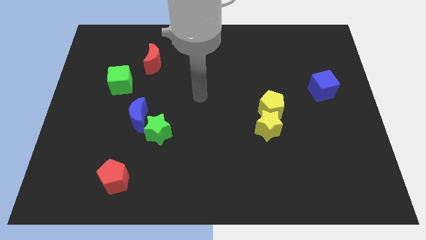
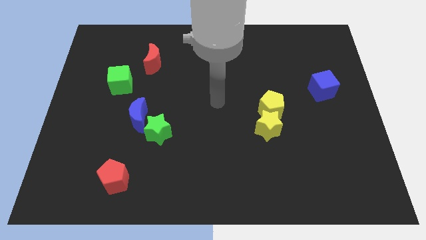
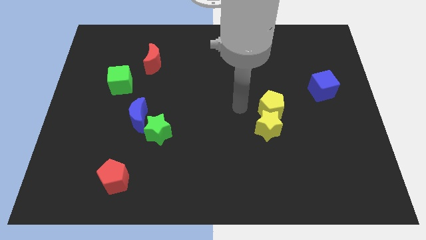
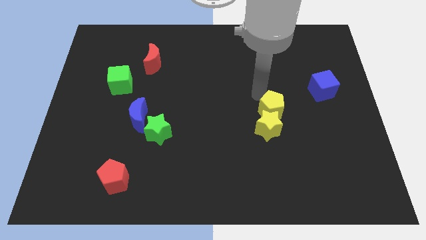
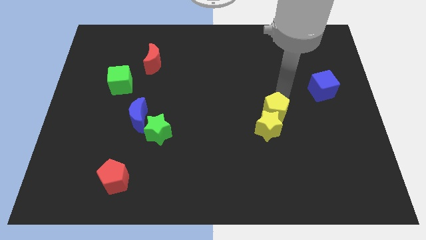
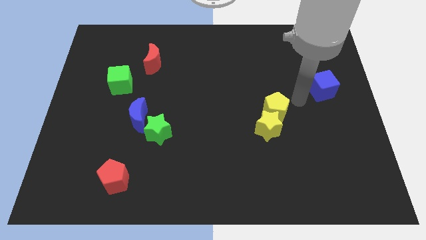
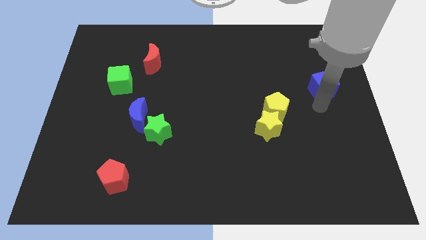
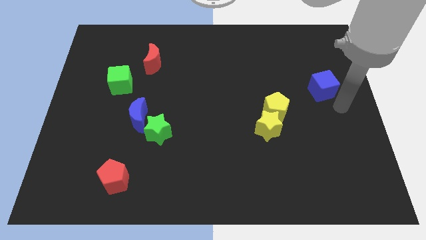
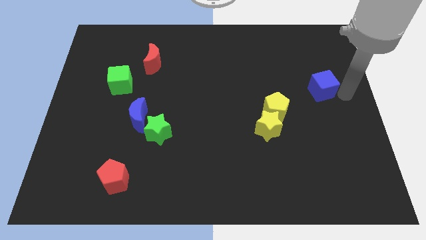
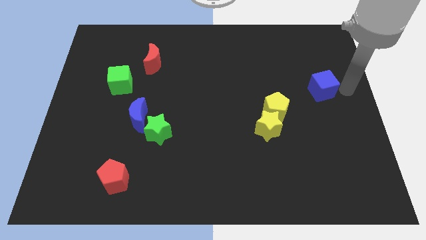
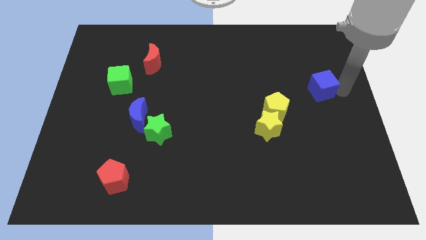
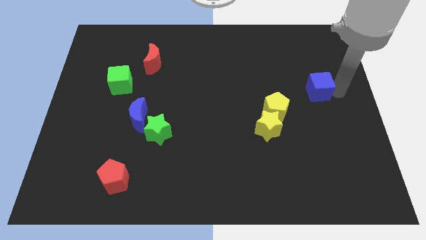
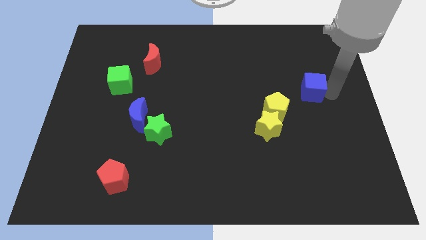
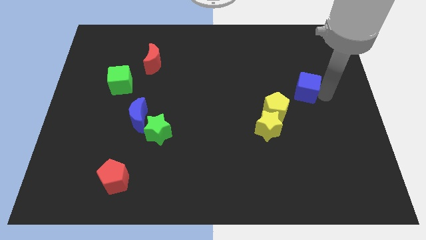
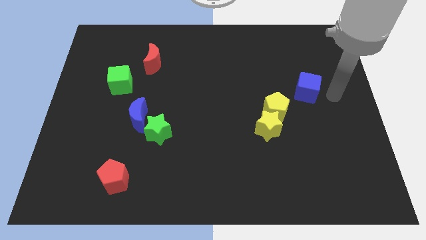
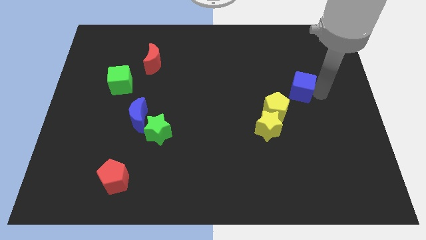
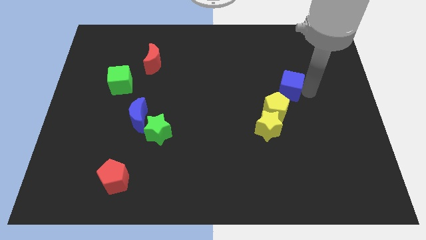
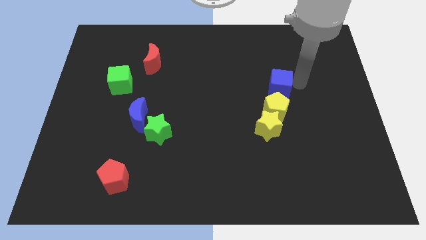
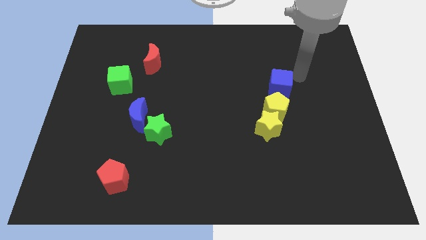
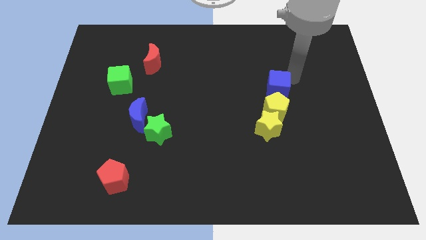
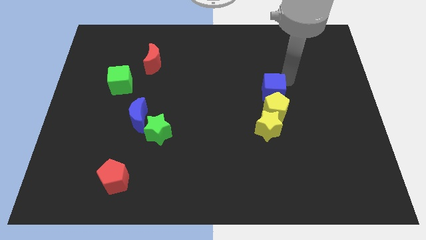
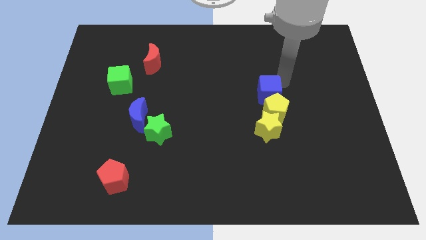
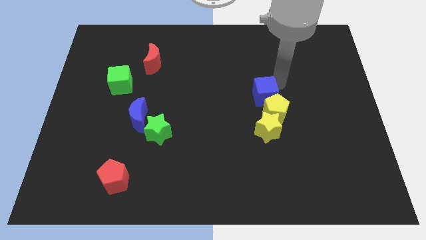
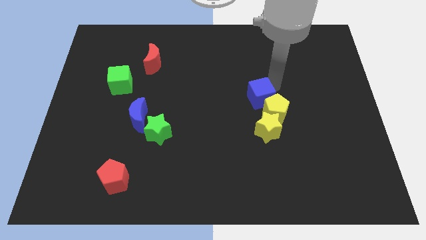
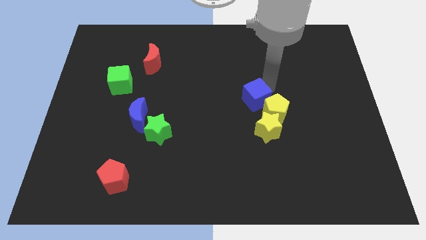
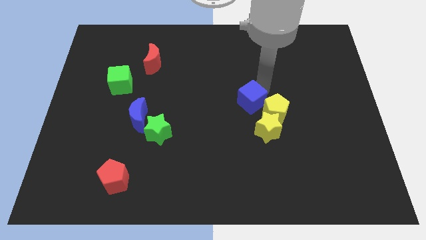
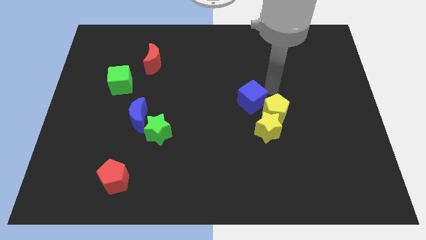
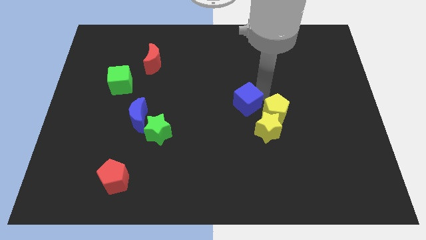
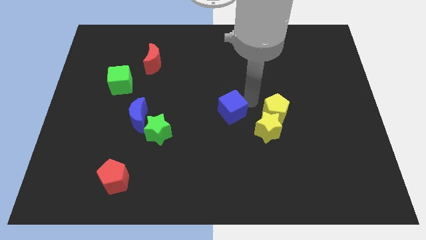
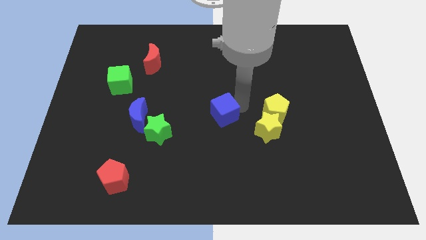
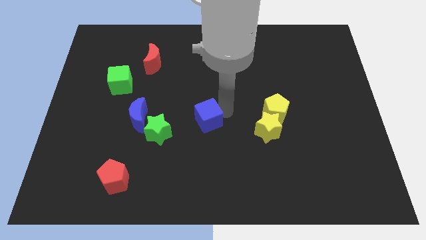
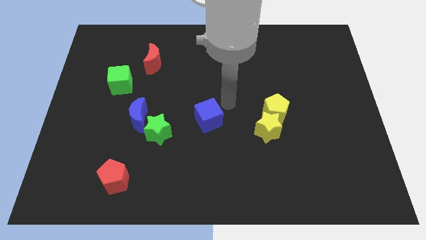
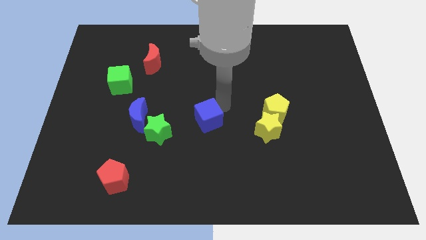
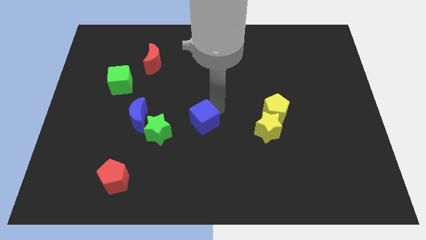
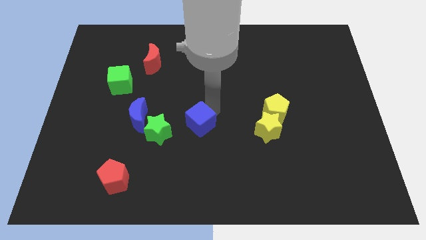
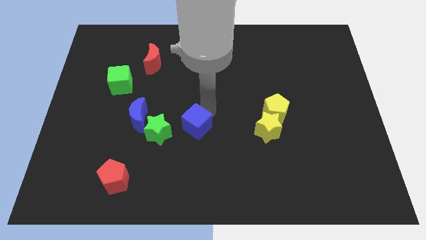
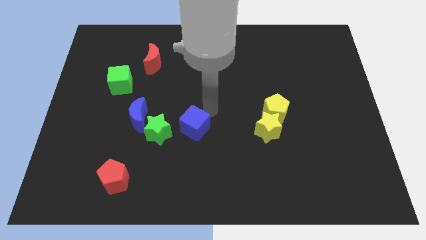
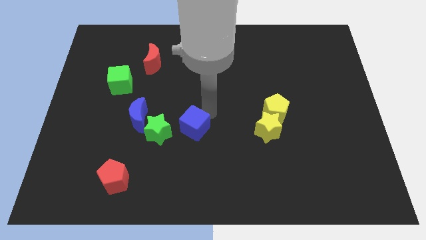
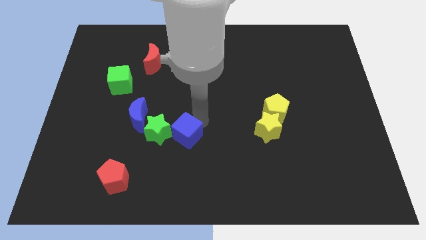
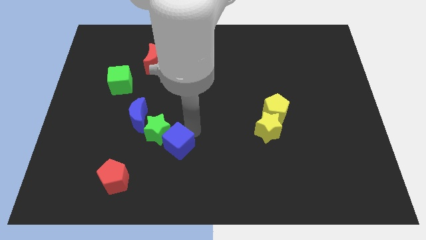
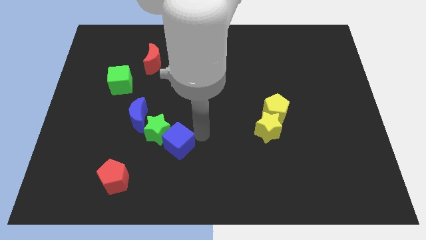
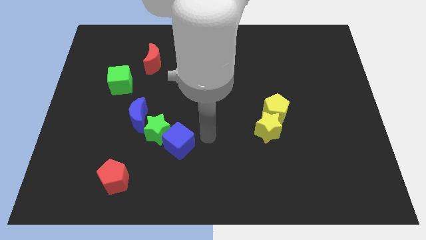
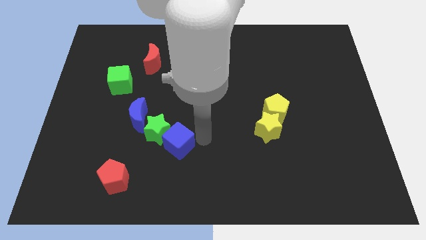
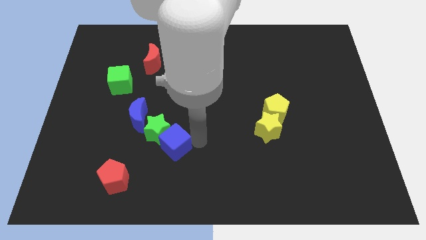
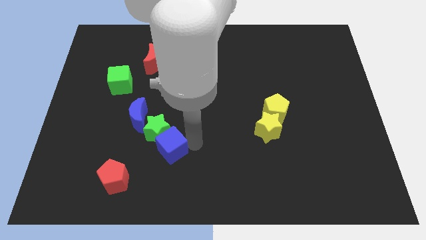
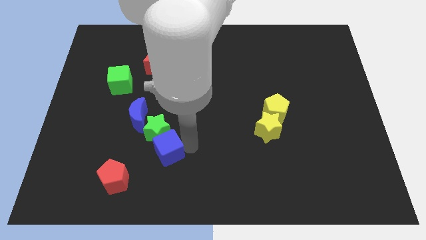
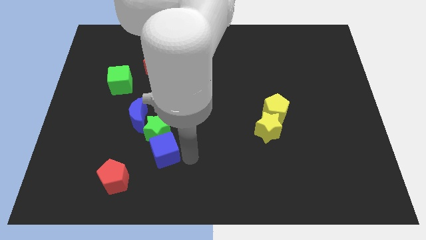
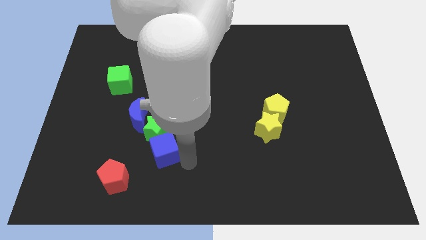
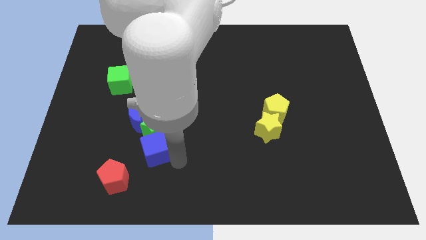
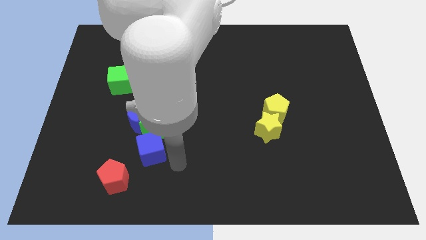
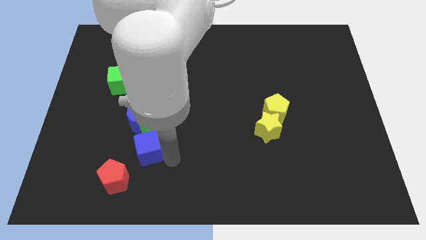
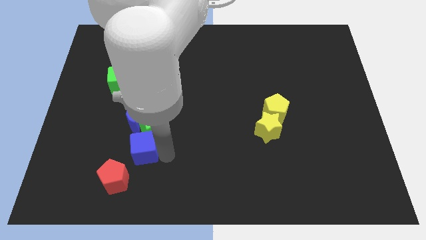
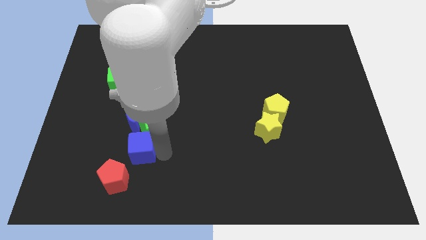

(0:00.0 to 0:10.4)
put the blue cube to the top of the red pentagon

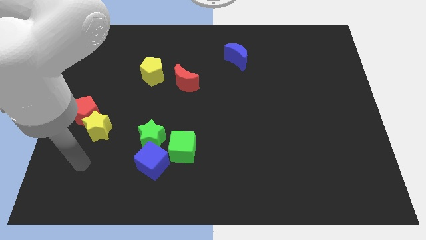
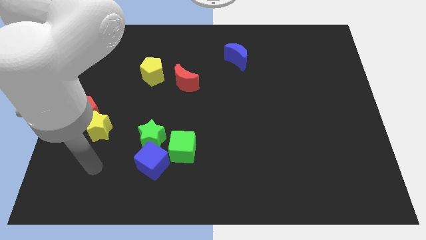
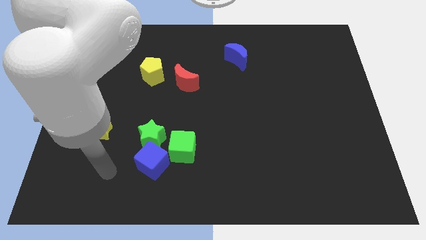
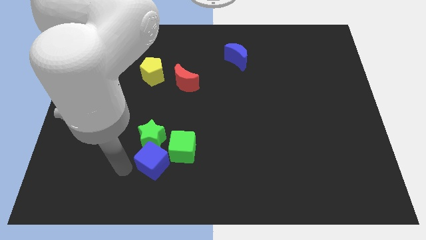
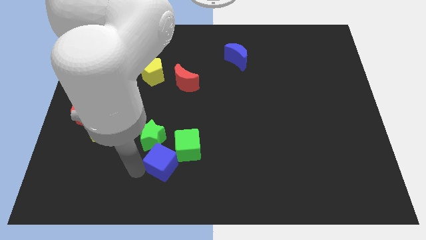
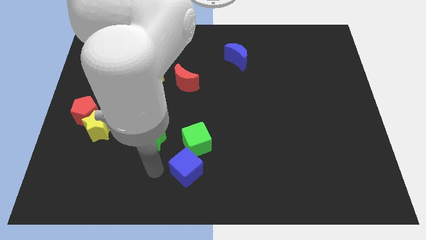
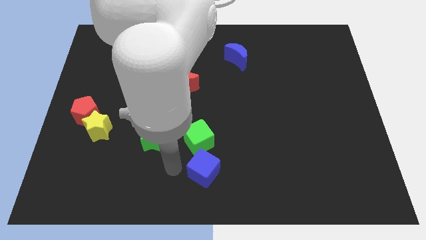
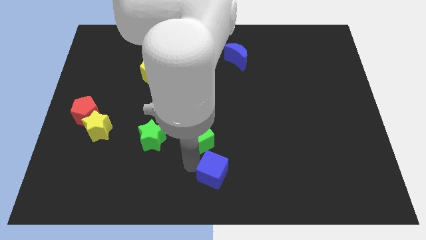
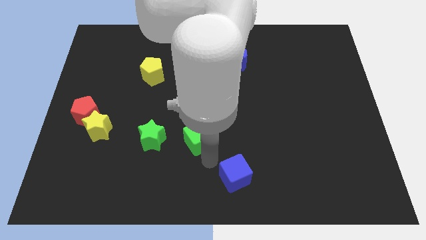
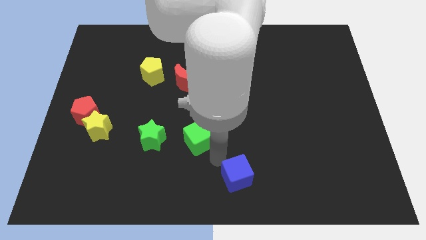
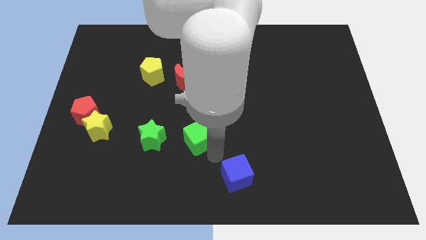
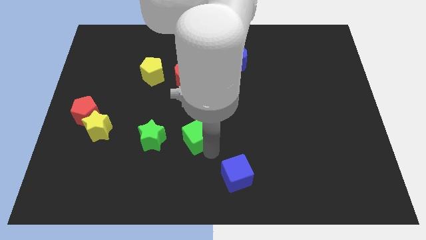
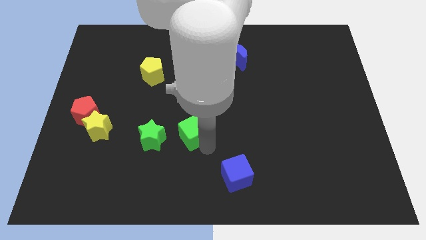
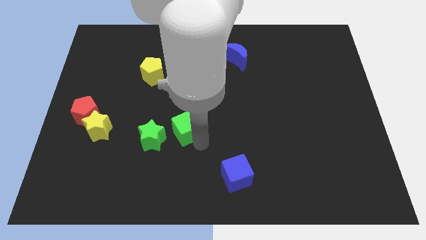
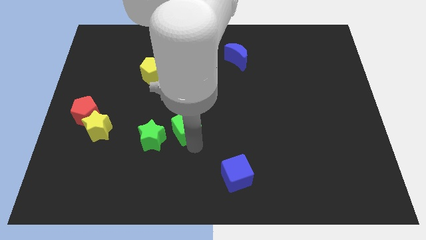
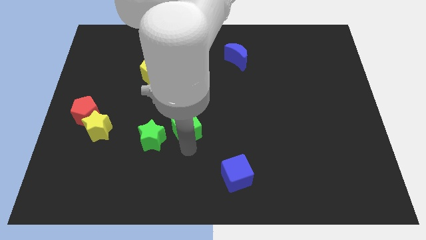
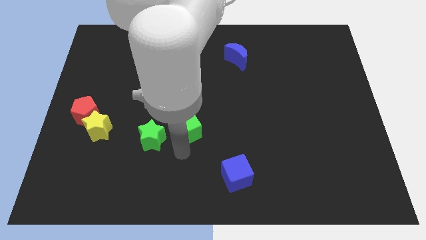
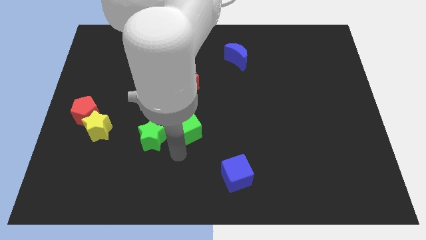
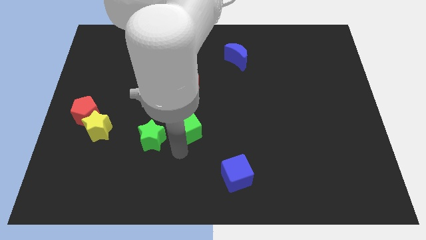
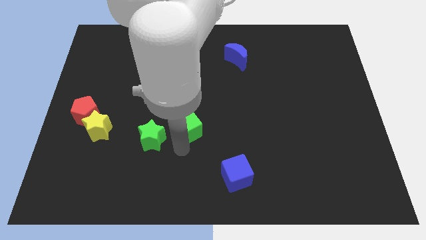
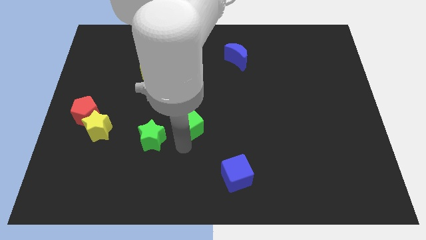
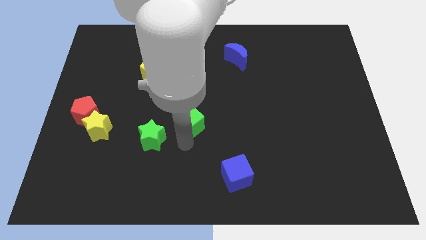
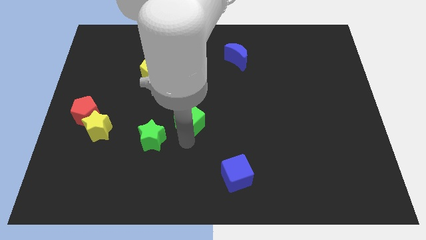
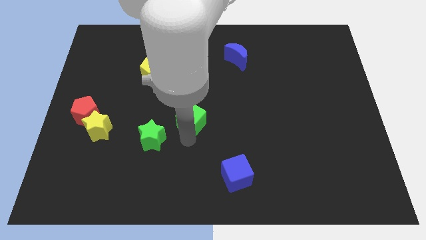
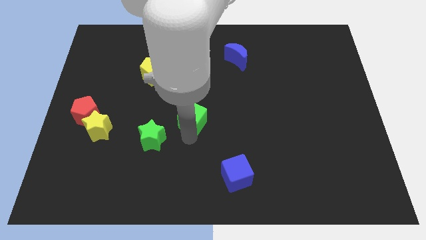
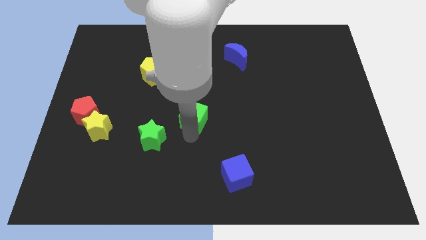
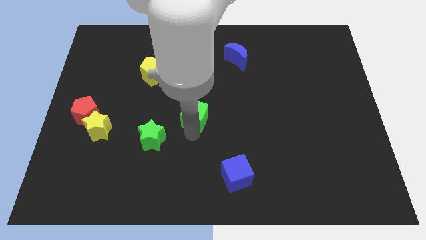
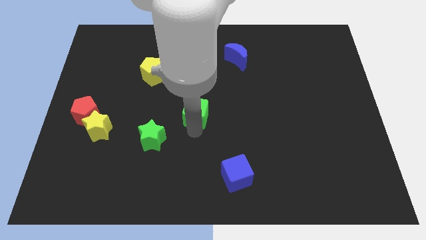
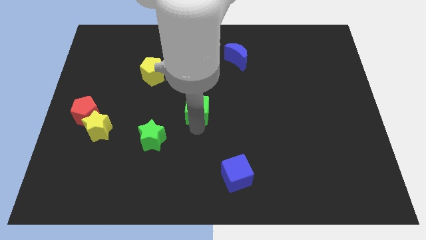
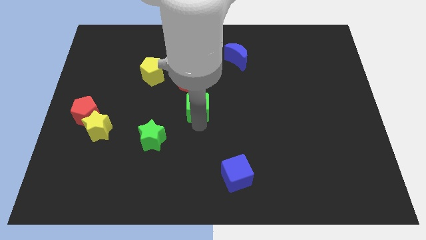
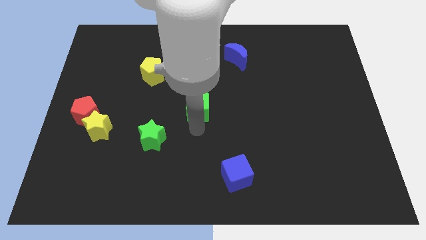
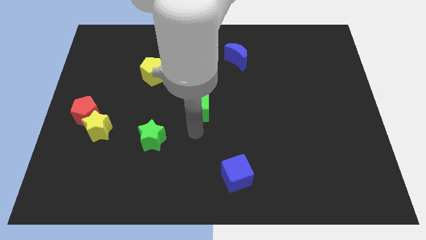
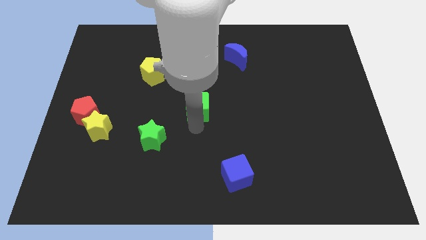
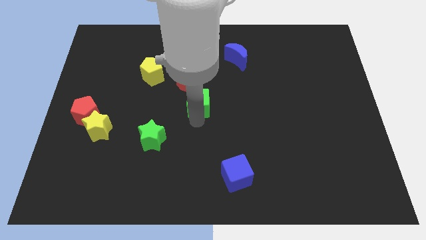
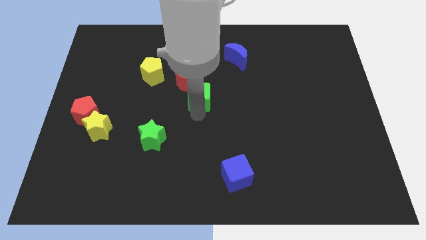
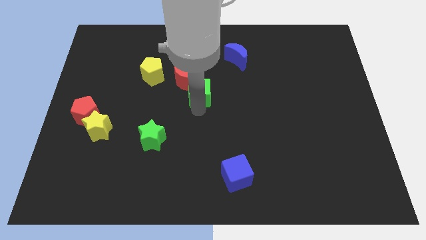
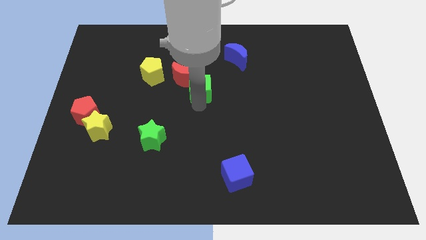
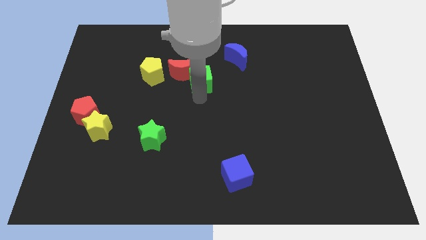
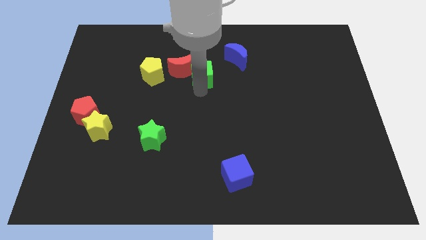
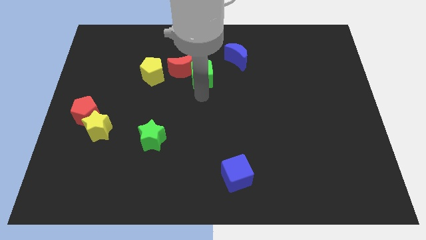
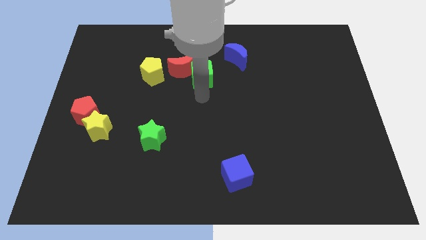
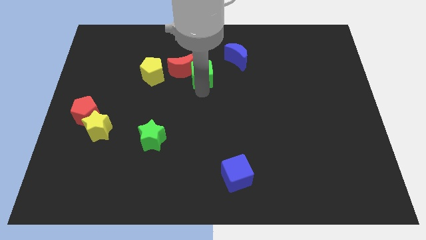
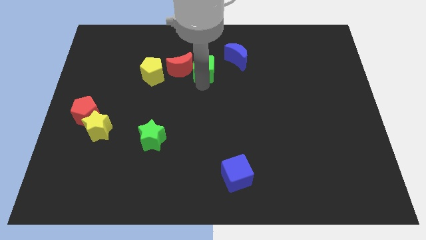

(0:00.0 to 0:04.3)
put the green cube to the top right side of the red moon
